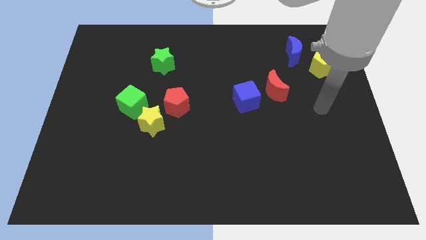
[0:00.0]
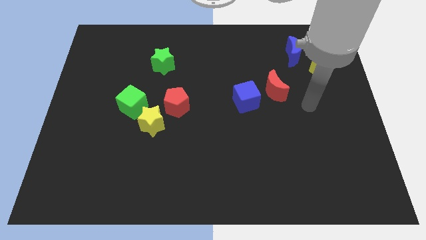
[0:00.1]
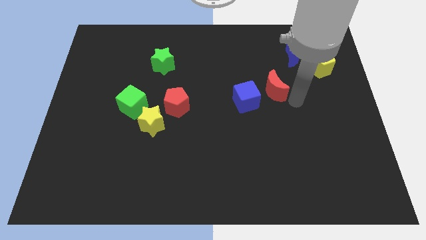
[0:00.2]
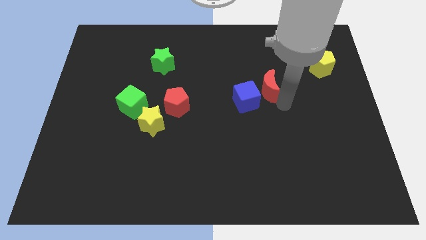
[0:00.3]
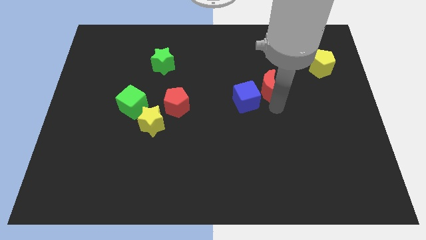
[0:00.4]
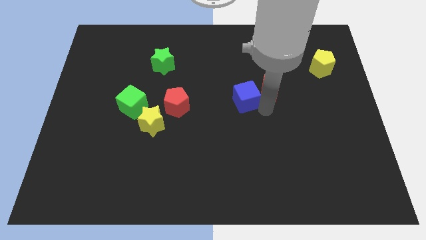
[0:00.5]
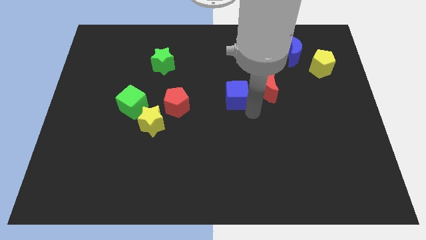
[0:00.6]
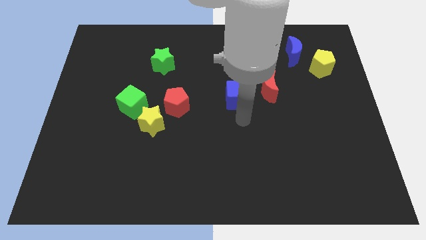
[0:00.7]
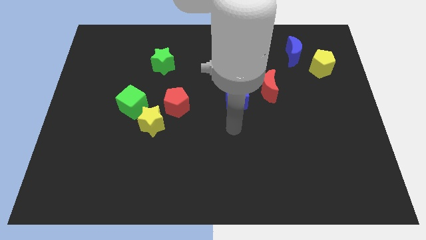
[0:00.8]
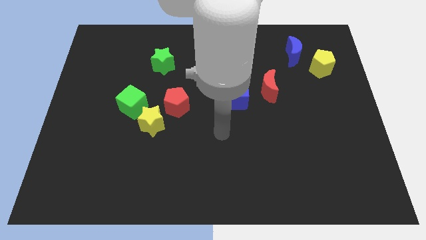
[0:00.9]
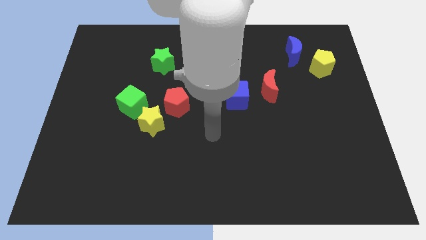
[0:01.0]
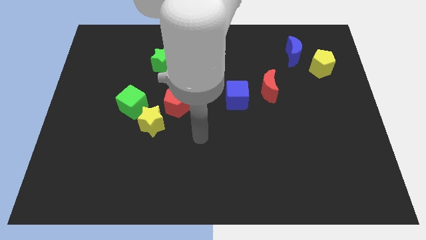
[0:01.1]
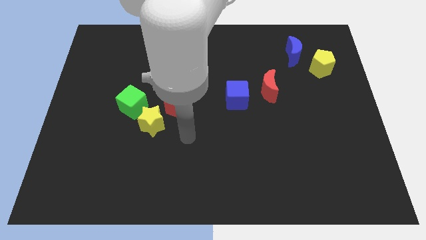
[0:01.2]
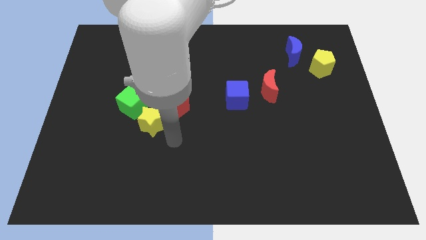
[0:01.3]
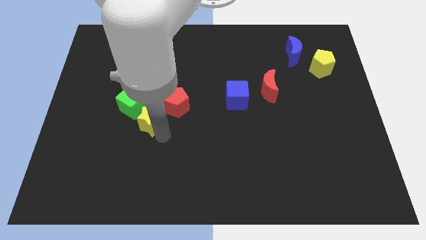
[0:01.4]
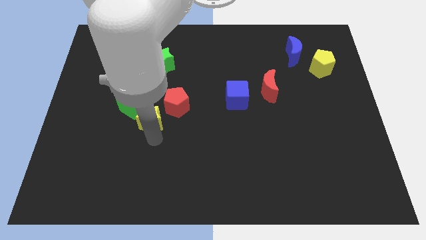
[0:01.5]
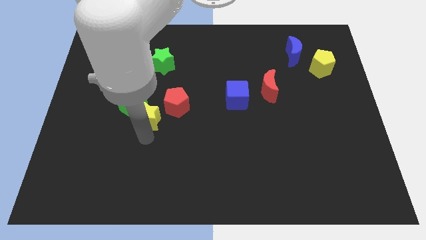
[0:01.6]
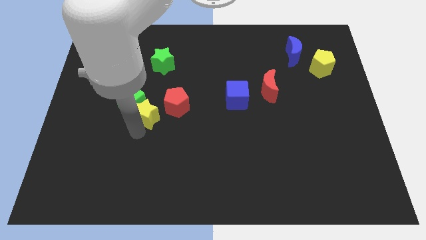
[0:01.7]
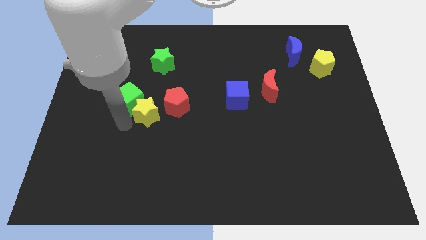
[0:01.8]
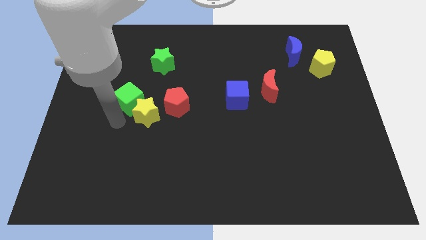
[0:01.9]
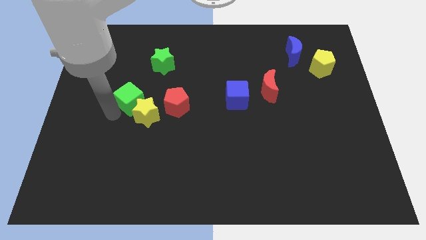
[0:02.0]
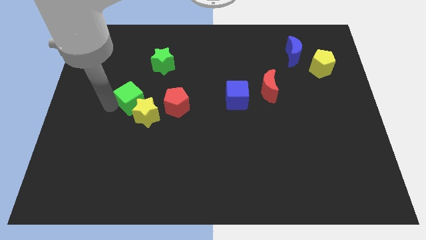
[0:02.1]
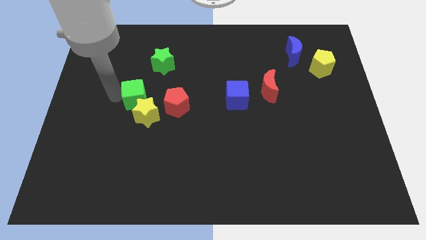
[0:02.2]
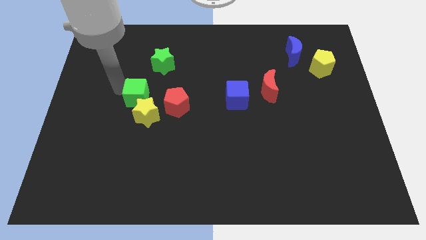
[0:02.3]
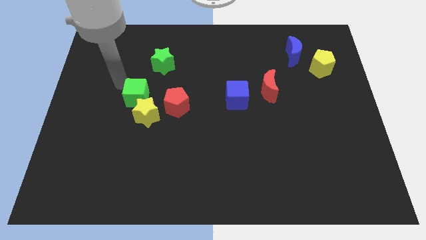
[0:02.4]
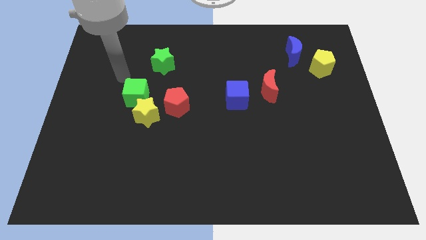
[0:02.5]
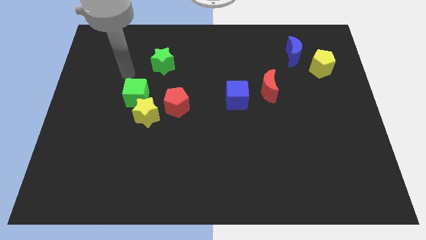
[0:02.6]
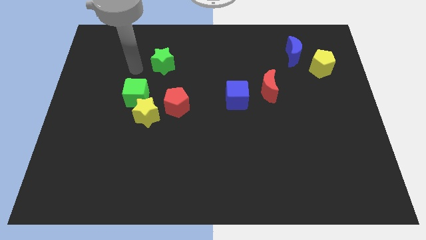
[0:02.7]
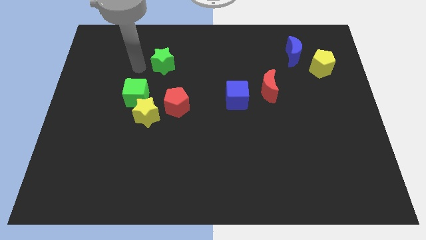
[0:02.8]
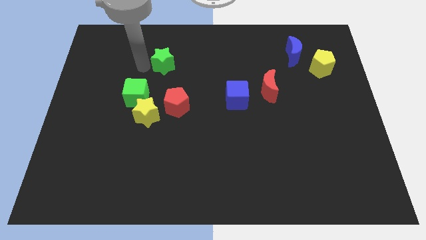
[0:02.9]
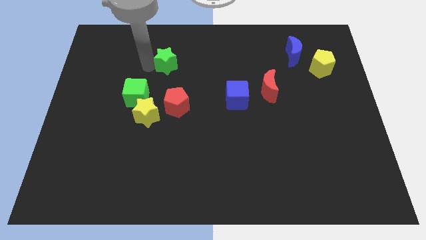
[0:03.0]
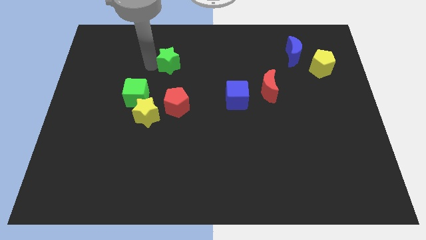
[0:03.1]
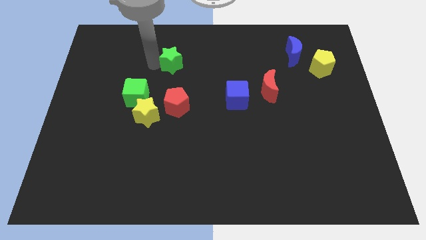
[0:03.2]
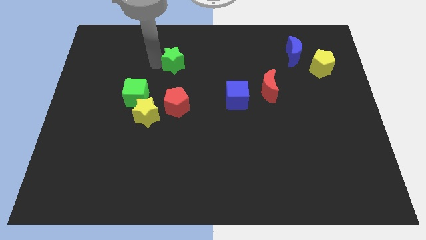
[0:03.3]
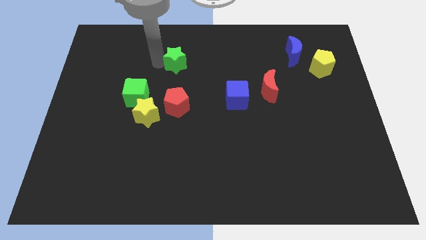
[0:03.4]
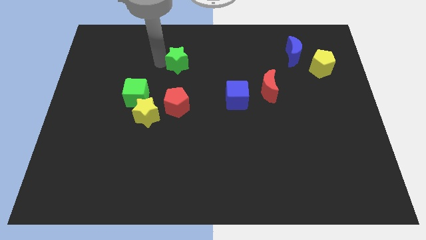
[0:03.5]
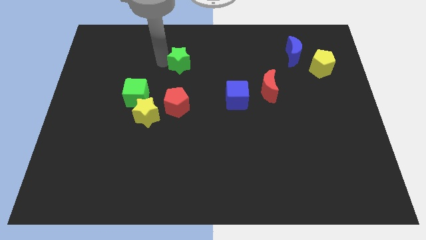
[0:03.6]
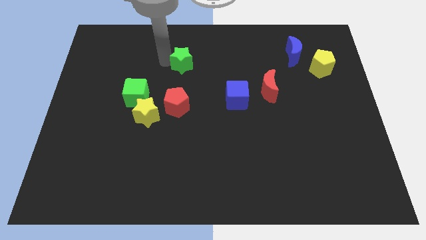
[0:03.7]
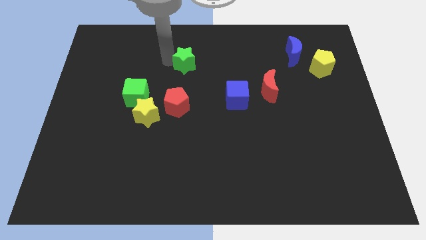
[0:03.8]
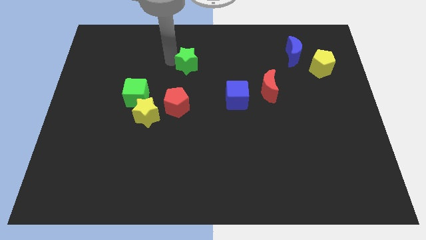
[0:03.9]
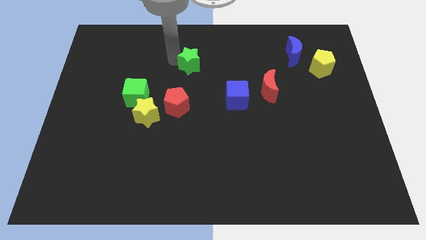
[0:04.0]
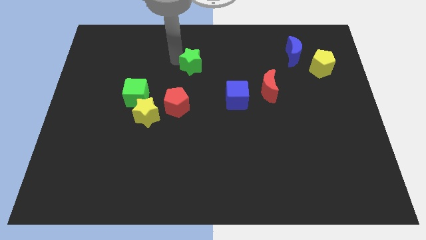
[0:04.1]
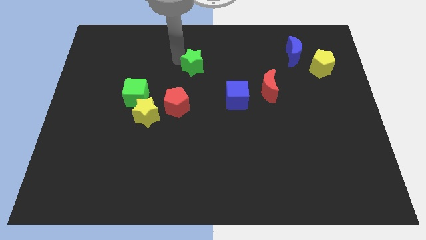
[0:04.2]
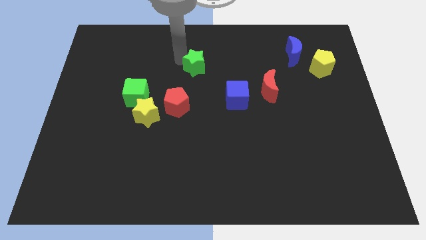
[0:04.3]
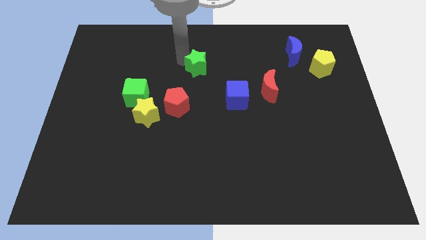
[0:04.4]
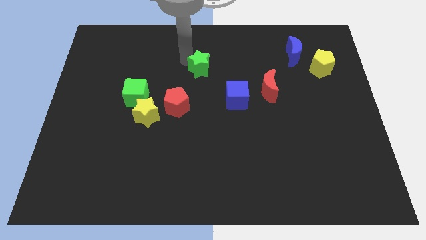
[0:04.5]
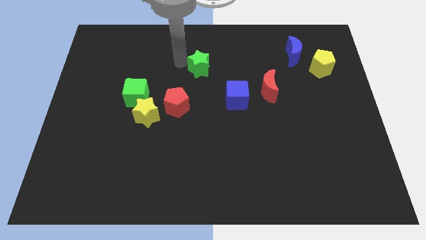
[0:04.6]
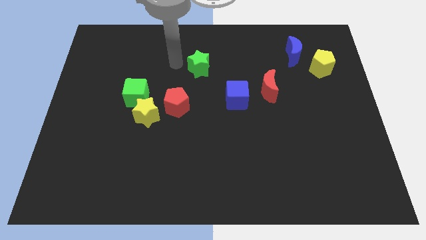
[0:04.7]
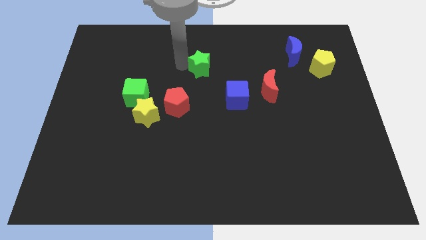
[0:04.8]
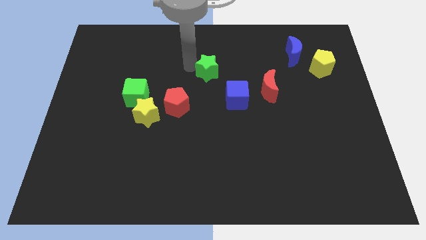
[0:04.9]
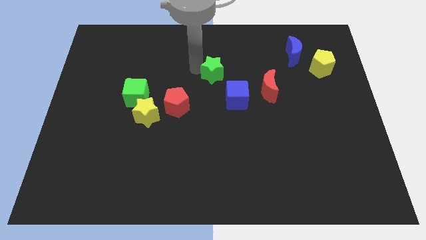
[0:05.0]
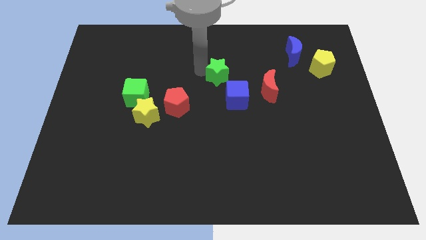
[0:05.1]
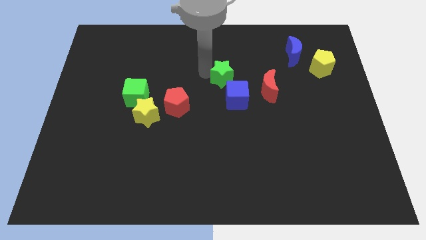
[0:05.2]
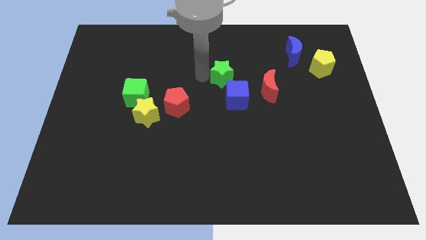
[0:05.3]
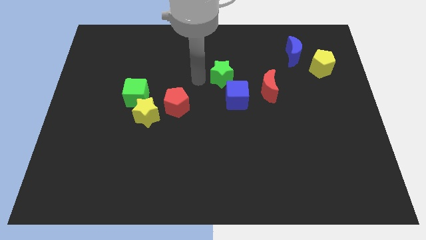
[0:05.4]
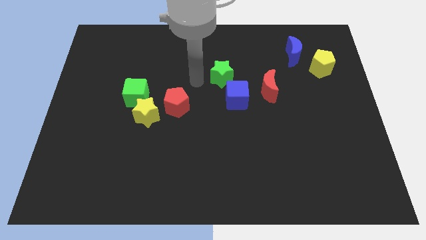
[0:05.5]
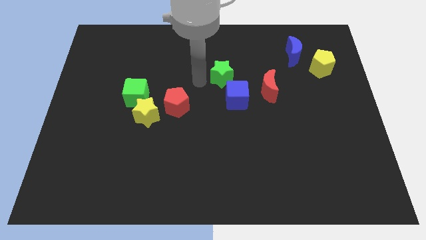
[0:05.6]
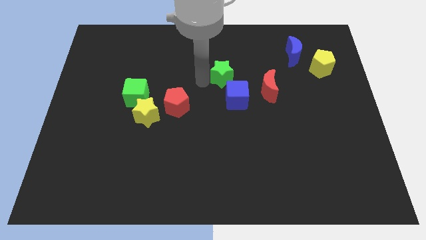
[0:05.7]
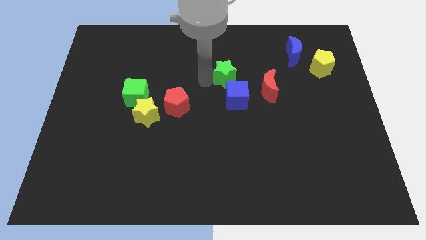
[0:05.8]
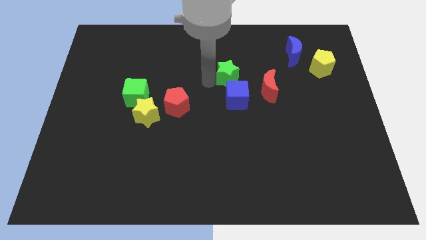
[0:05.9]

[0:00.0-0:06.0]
move the green star diagonally up and to the left of the red moon

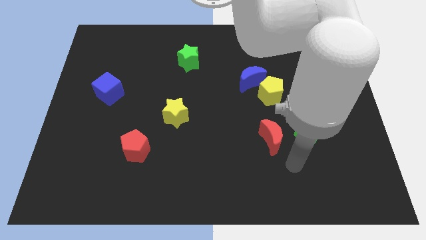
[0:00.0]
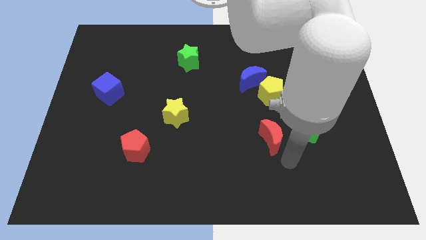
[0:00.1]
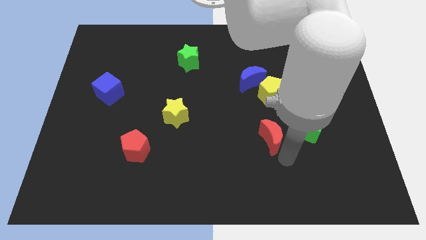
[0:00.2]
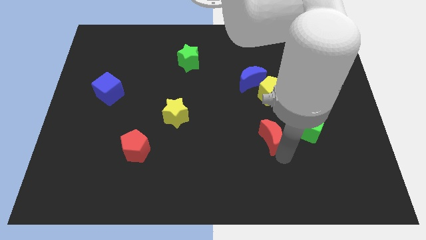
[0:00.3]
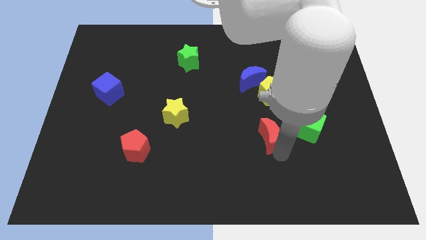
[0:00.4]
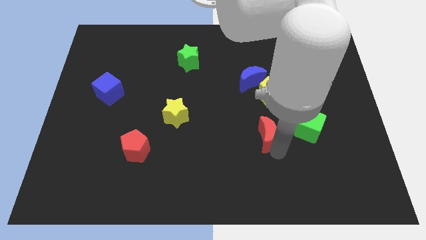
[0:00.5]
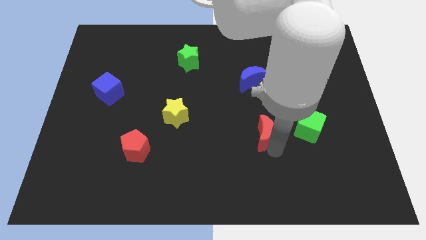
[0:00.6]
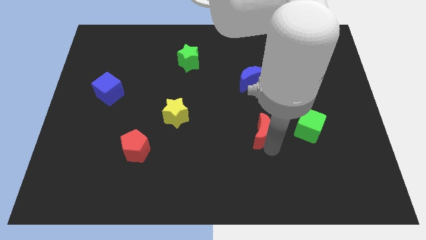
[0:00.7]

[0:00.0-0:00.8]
put the red moon to the bottom of the blue moon
